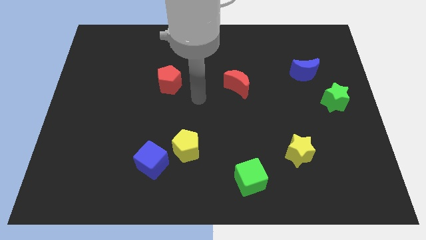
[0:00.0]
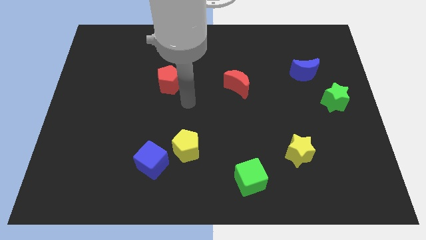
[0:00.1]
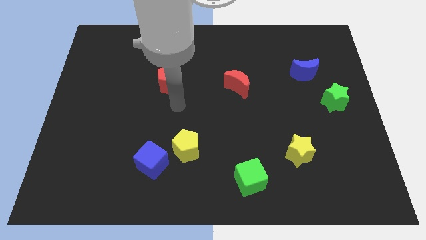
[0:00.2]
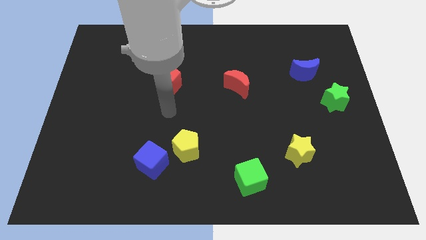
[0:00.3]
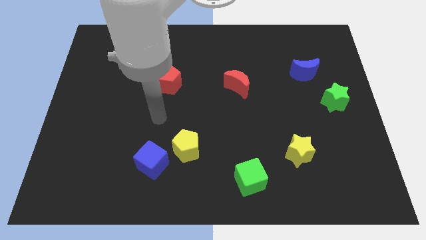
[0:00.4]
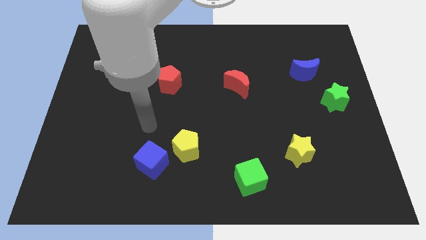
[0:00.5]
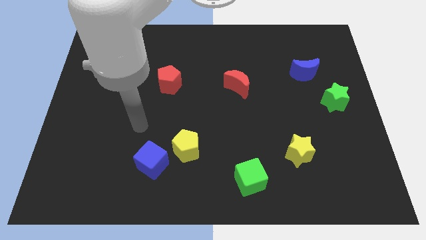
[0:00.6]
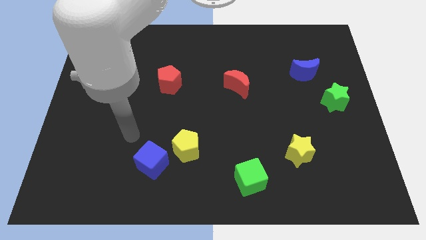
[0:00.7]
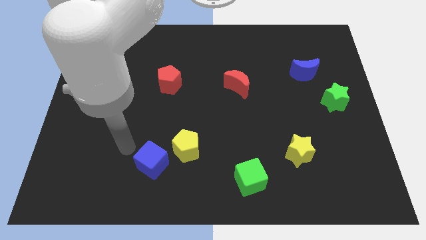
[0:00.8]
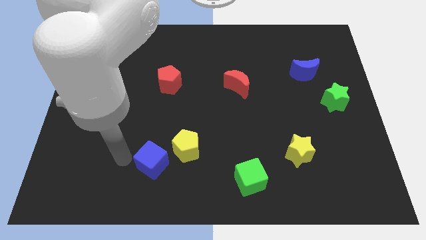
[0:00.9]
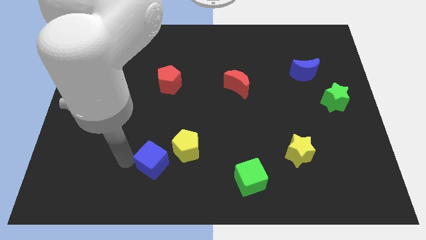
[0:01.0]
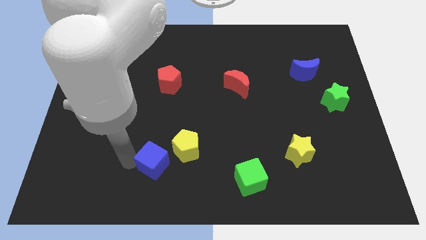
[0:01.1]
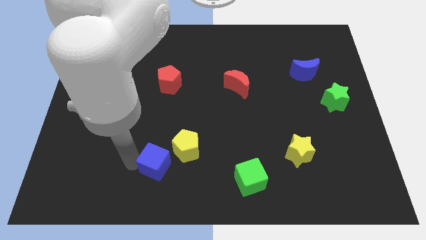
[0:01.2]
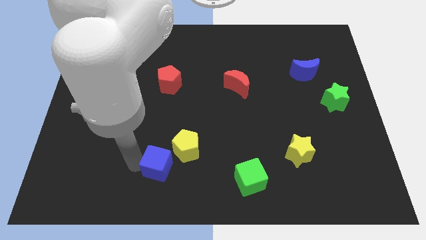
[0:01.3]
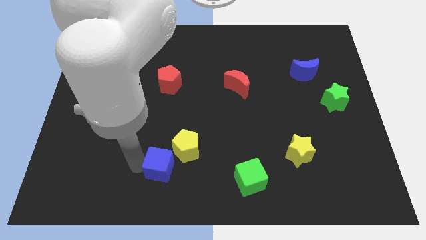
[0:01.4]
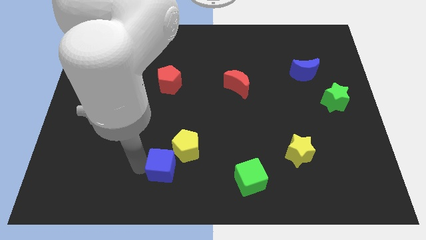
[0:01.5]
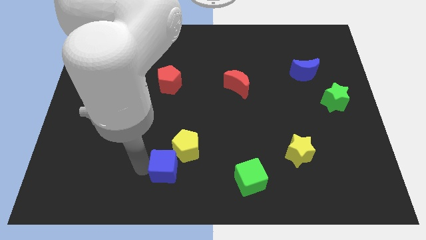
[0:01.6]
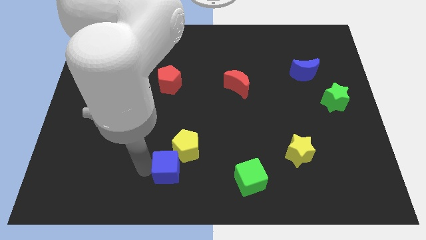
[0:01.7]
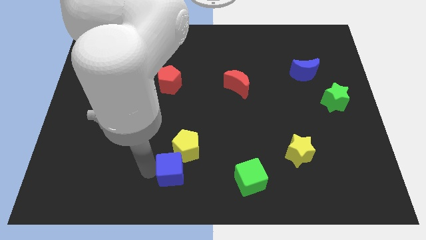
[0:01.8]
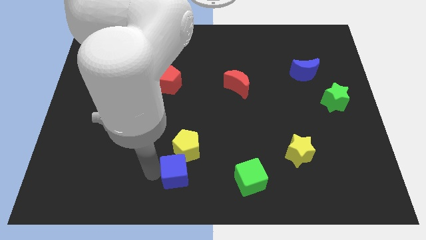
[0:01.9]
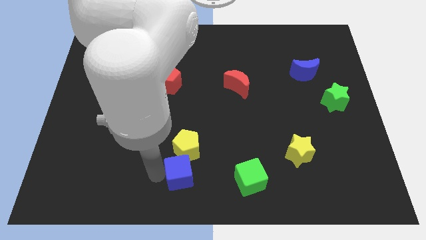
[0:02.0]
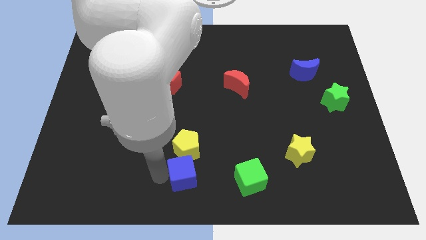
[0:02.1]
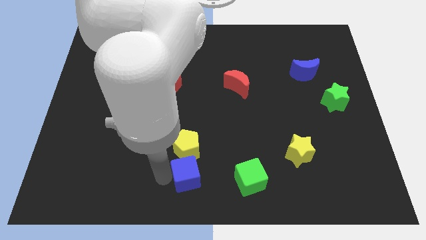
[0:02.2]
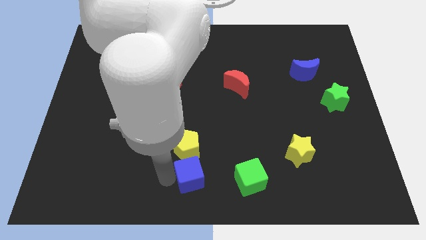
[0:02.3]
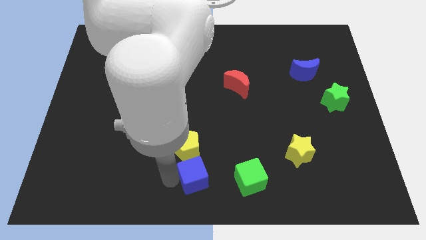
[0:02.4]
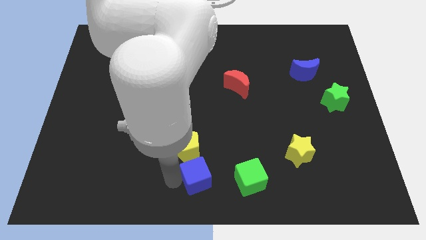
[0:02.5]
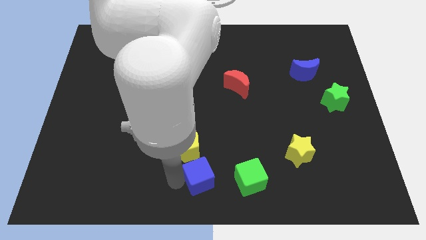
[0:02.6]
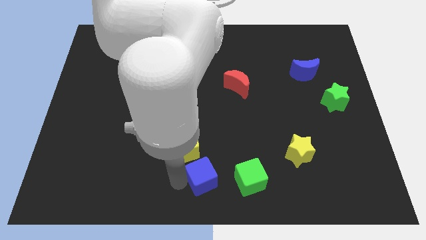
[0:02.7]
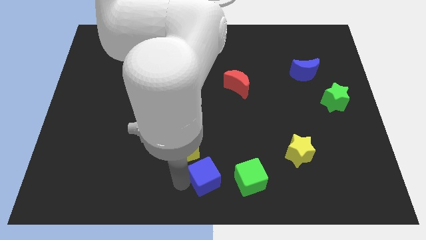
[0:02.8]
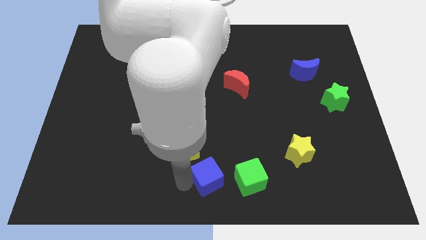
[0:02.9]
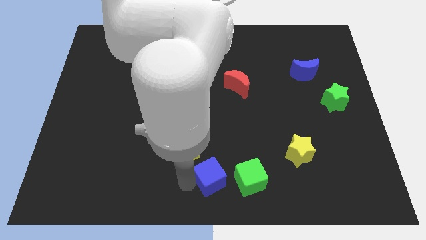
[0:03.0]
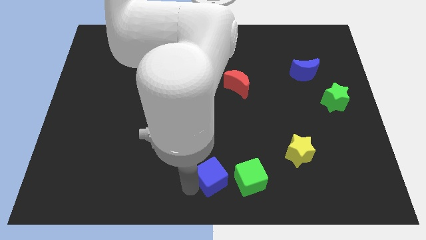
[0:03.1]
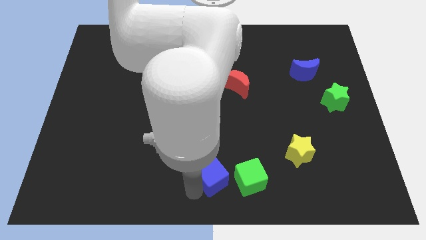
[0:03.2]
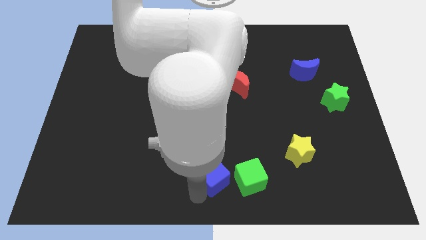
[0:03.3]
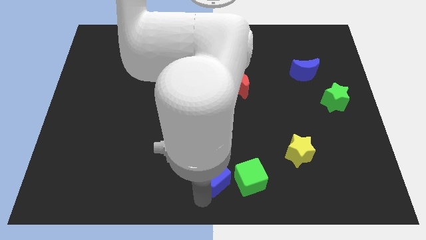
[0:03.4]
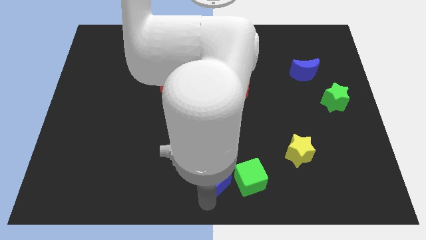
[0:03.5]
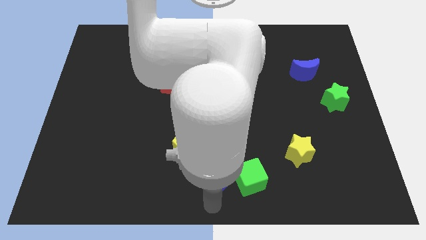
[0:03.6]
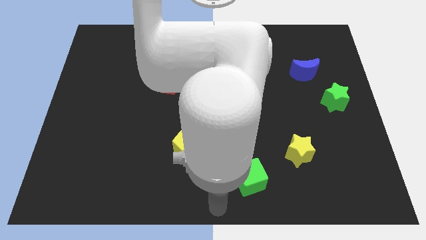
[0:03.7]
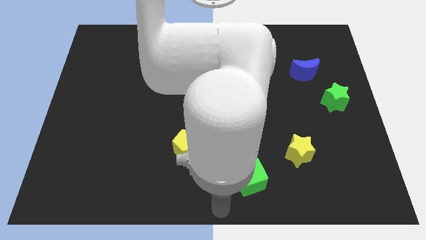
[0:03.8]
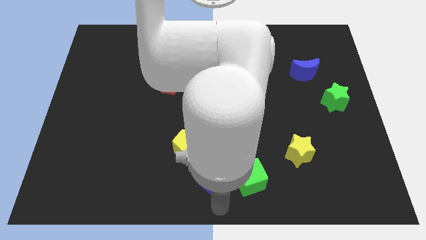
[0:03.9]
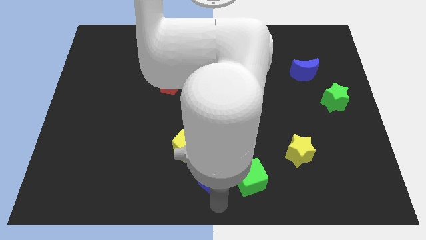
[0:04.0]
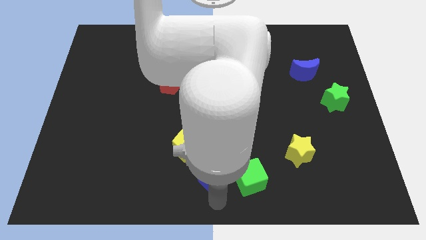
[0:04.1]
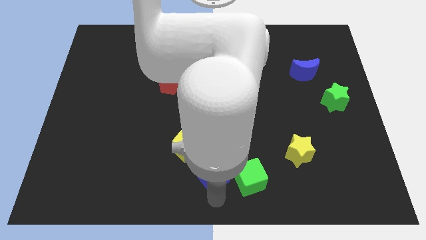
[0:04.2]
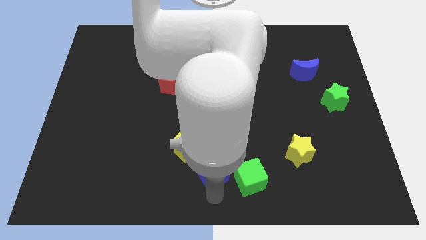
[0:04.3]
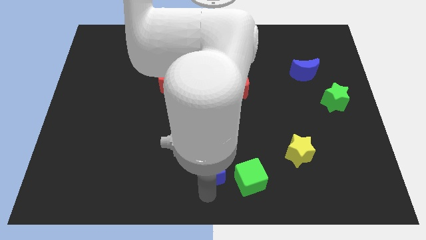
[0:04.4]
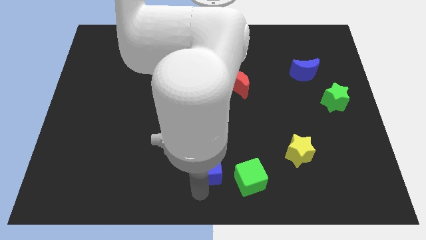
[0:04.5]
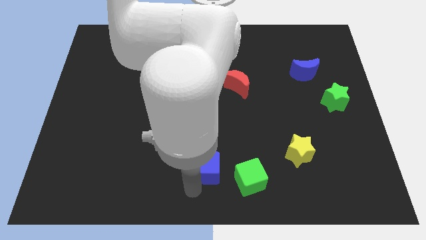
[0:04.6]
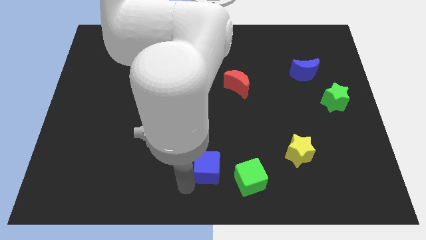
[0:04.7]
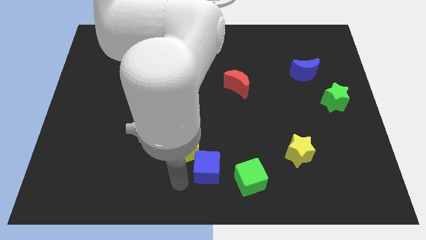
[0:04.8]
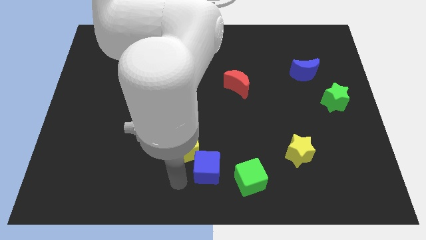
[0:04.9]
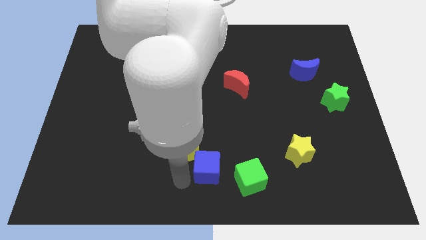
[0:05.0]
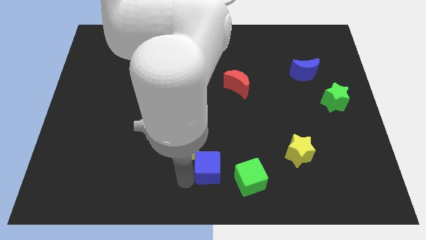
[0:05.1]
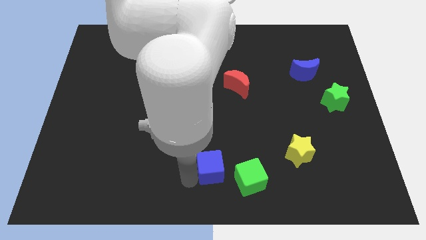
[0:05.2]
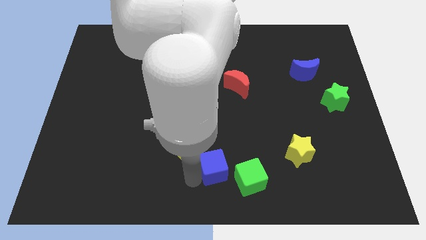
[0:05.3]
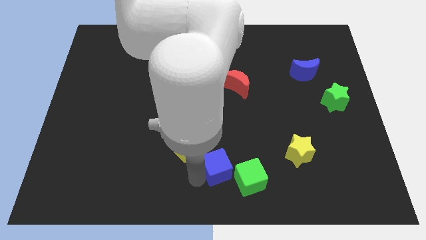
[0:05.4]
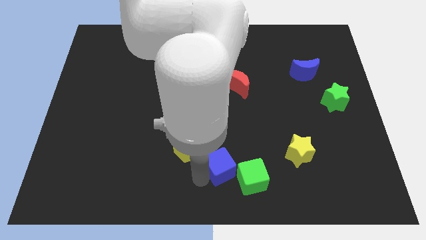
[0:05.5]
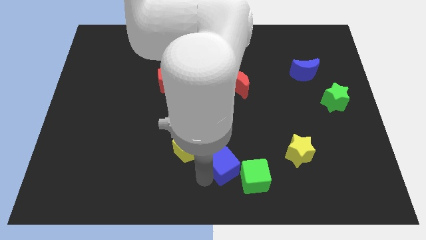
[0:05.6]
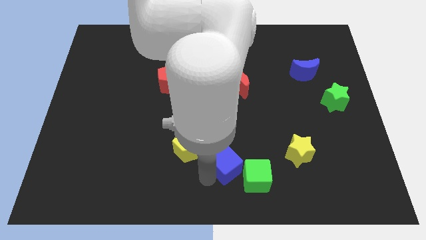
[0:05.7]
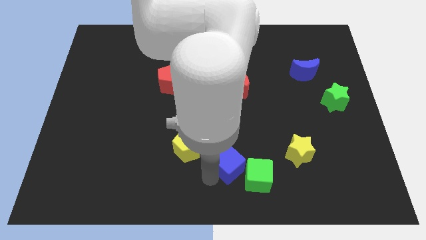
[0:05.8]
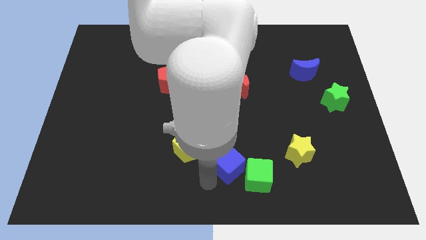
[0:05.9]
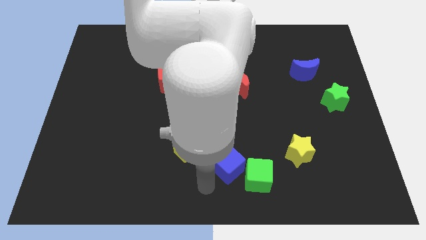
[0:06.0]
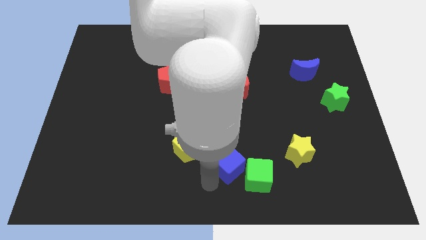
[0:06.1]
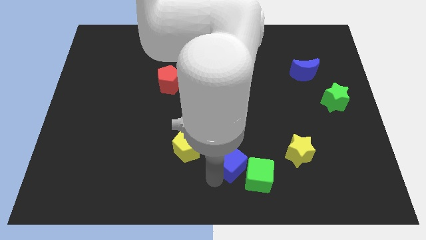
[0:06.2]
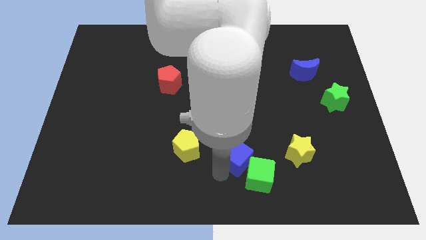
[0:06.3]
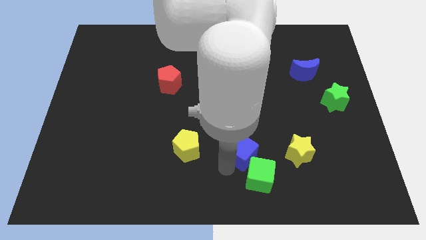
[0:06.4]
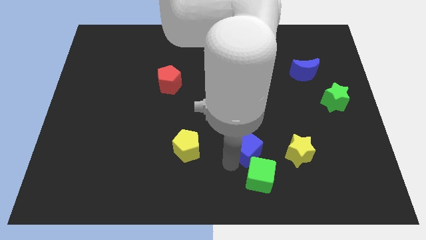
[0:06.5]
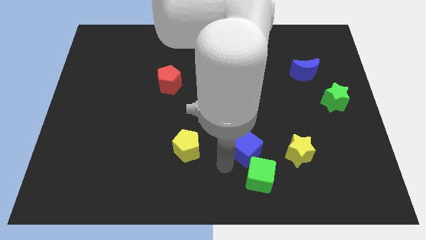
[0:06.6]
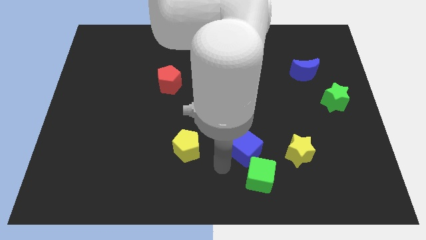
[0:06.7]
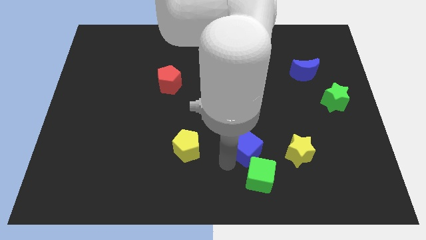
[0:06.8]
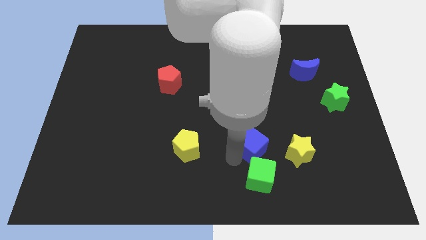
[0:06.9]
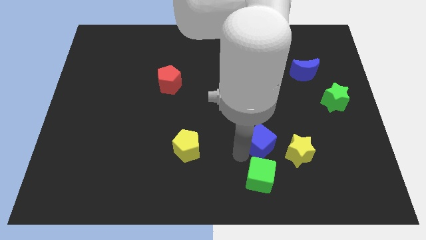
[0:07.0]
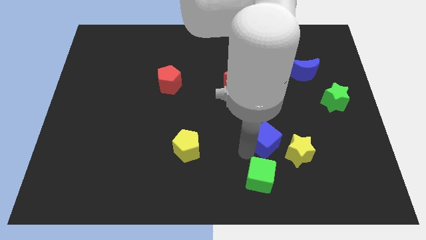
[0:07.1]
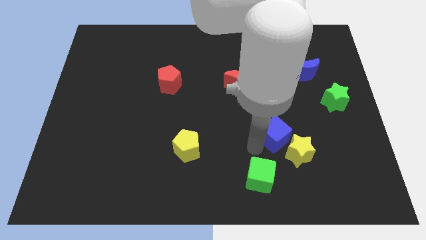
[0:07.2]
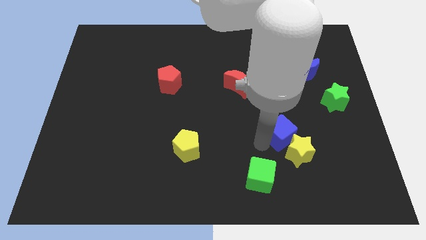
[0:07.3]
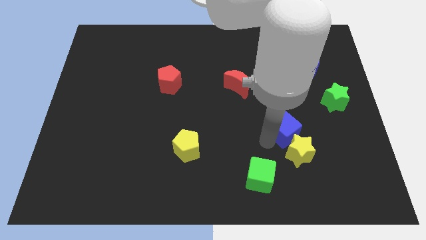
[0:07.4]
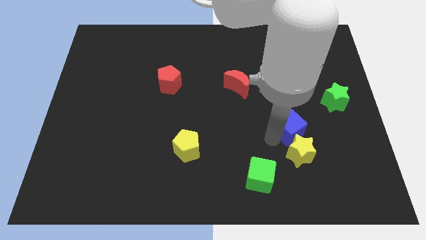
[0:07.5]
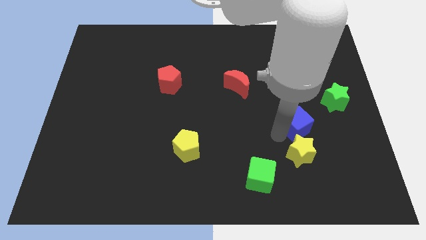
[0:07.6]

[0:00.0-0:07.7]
move the blue cube to the bottom left of the green star
